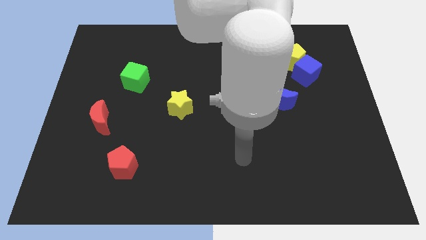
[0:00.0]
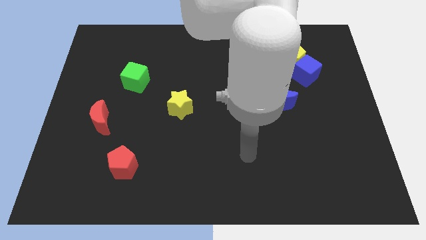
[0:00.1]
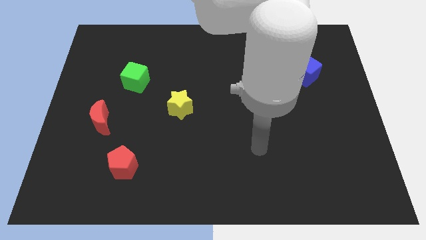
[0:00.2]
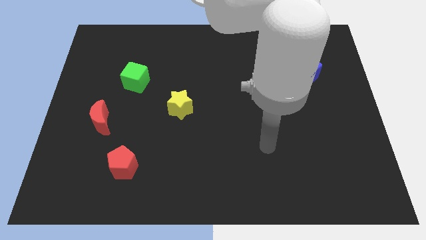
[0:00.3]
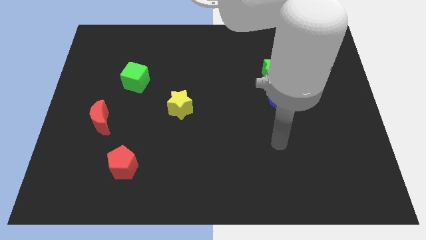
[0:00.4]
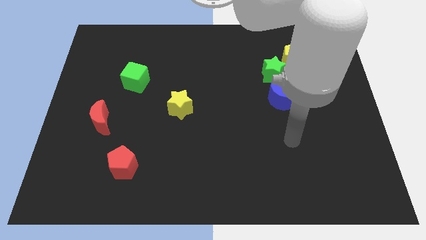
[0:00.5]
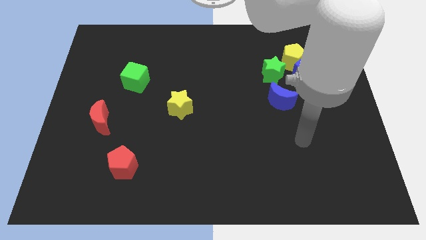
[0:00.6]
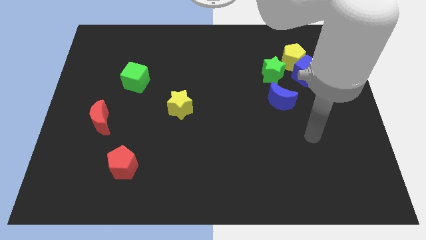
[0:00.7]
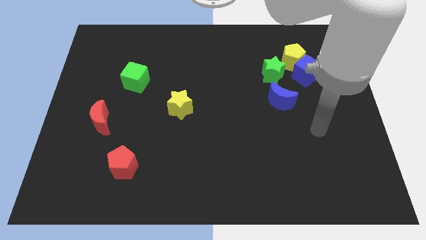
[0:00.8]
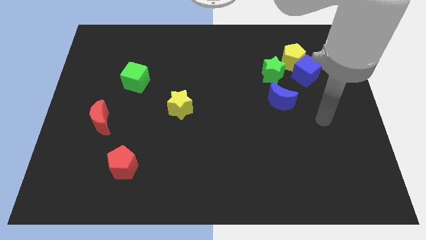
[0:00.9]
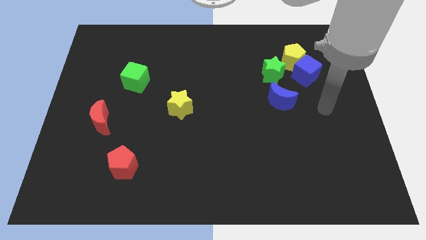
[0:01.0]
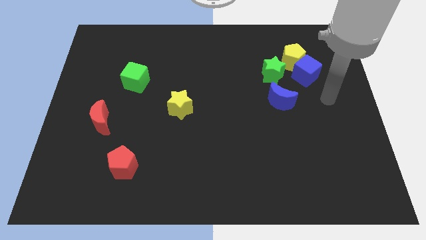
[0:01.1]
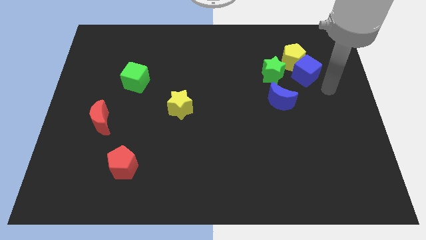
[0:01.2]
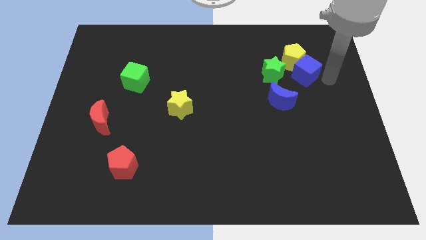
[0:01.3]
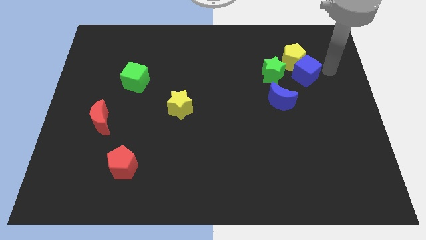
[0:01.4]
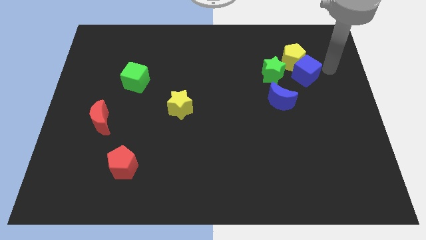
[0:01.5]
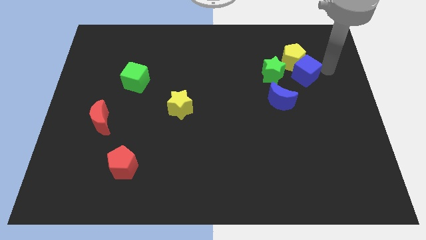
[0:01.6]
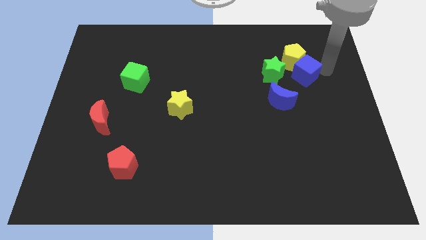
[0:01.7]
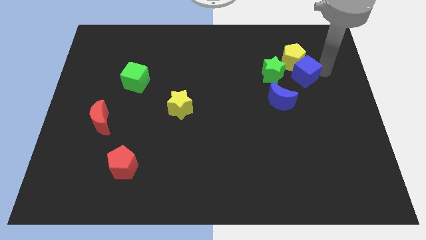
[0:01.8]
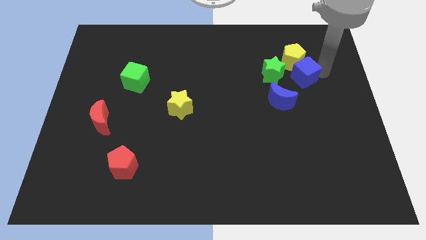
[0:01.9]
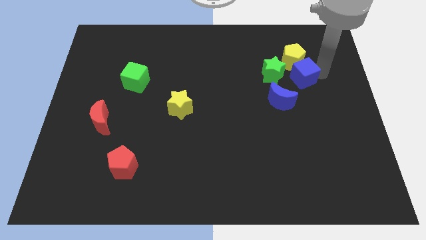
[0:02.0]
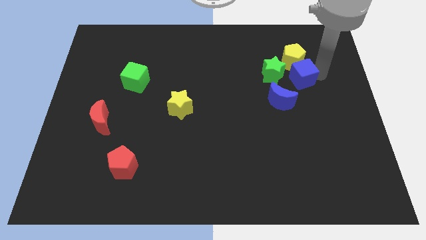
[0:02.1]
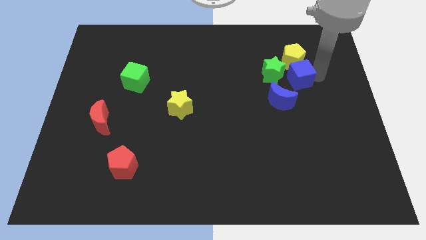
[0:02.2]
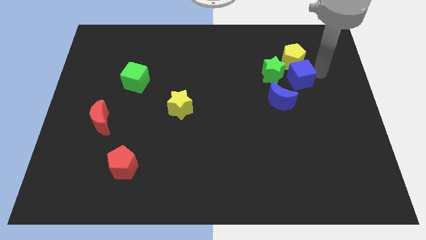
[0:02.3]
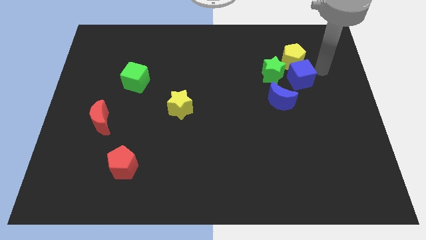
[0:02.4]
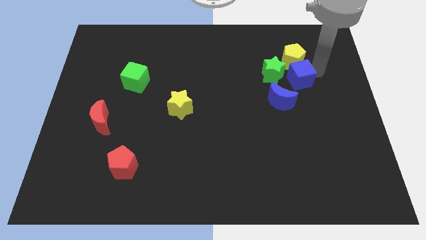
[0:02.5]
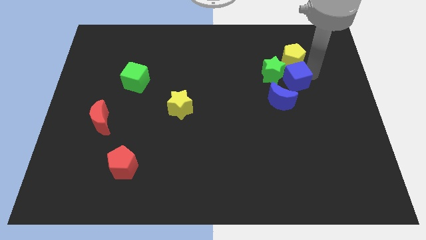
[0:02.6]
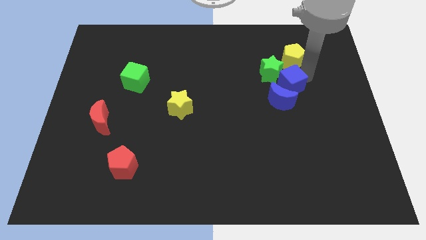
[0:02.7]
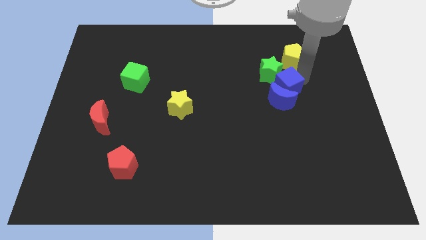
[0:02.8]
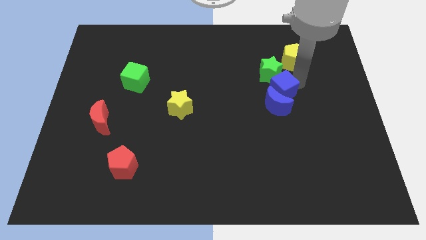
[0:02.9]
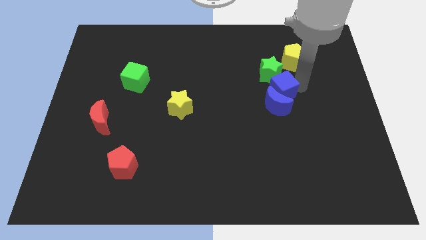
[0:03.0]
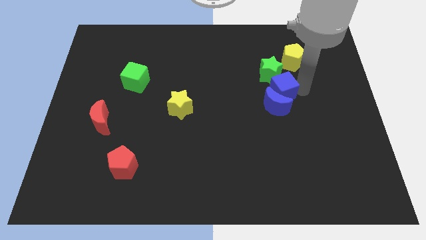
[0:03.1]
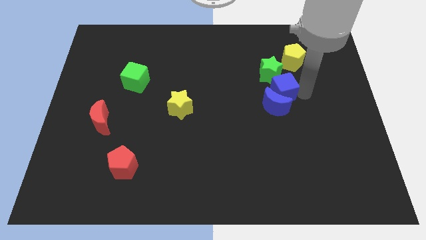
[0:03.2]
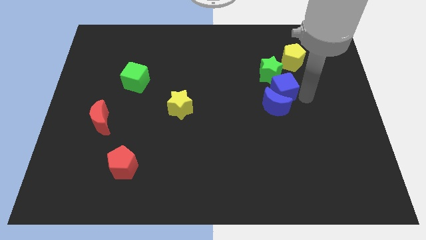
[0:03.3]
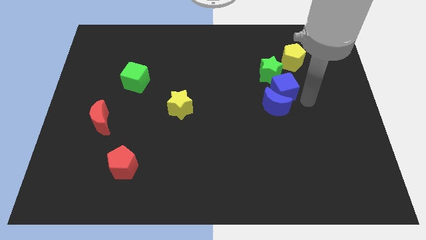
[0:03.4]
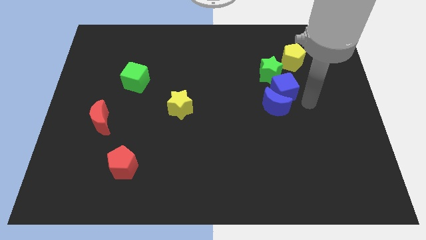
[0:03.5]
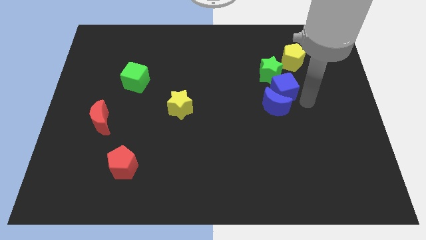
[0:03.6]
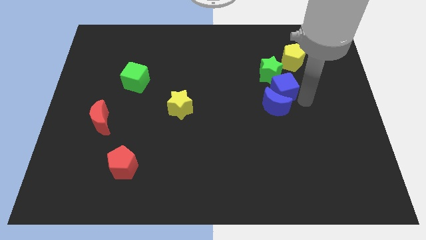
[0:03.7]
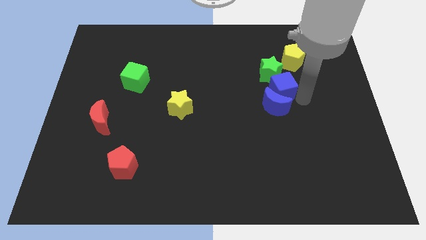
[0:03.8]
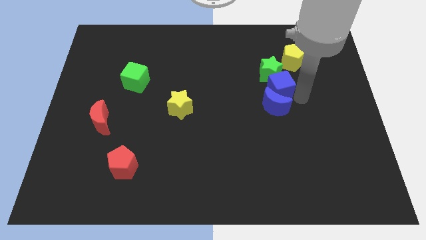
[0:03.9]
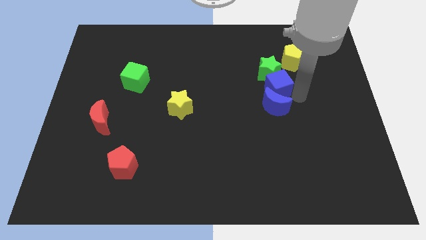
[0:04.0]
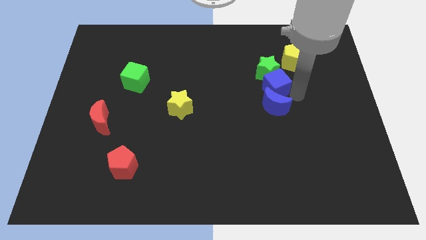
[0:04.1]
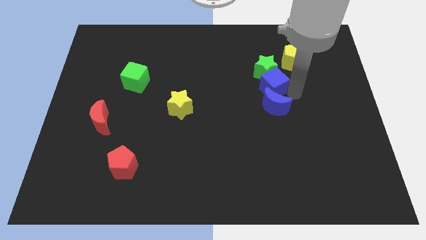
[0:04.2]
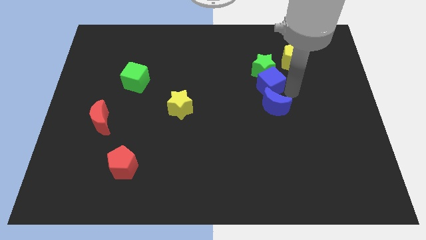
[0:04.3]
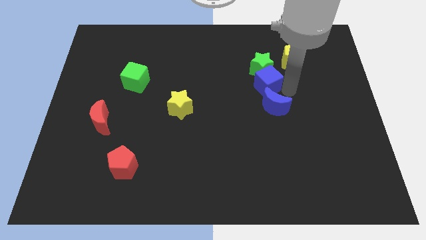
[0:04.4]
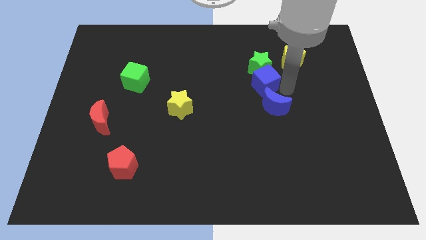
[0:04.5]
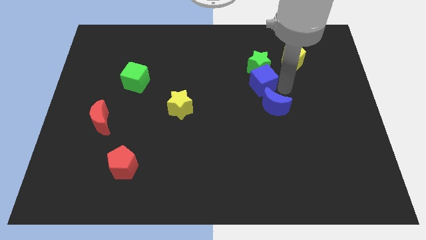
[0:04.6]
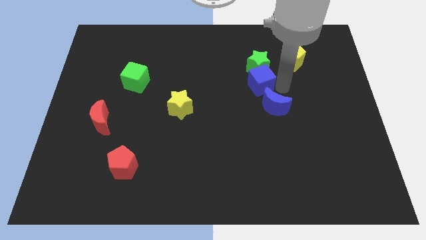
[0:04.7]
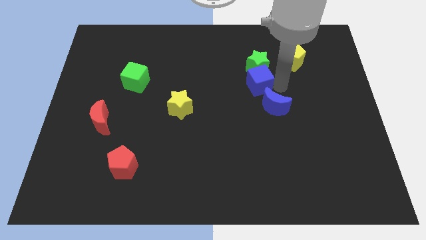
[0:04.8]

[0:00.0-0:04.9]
put the blue cube to the center of the board

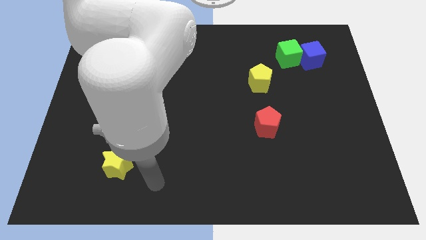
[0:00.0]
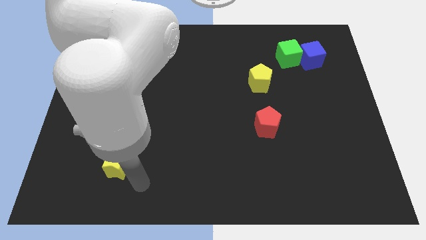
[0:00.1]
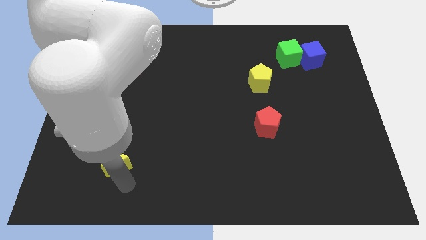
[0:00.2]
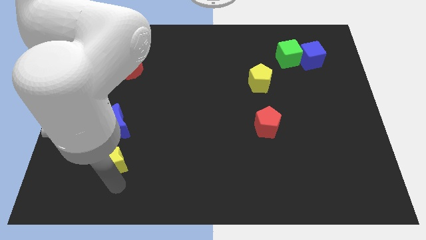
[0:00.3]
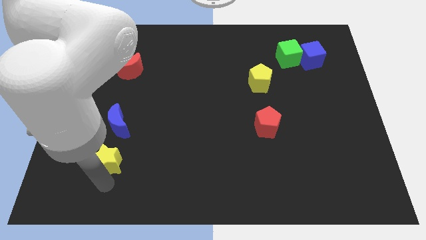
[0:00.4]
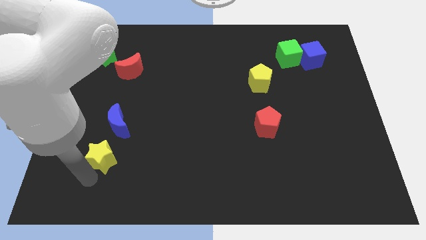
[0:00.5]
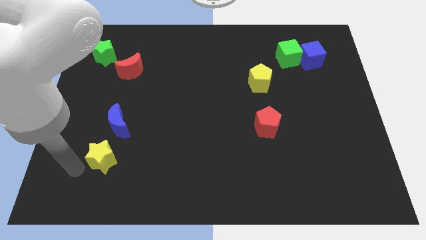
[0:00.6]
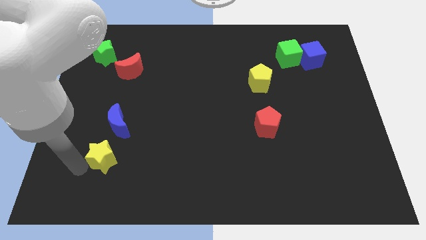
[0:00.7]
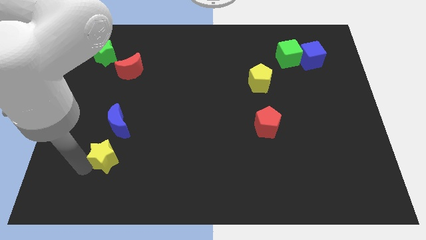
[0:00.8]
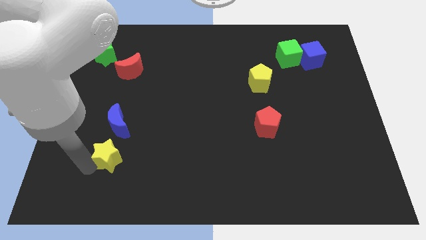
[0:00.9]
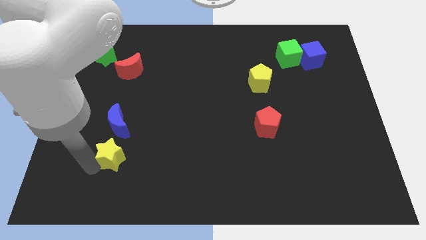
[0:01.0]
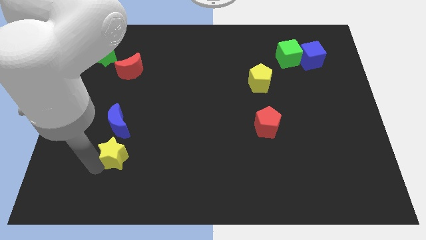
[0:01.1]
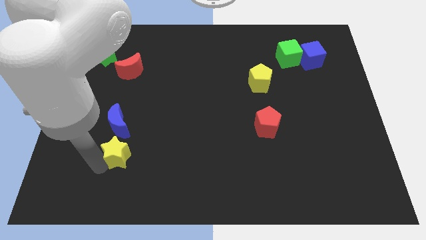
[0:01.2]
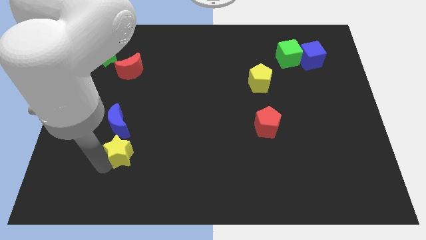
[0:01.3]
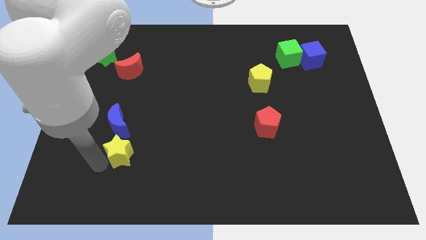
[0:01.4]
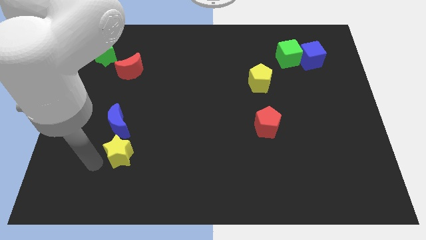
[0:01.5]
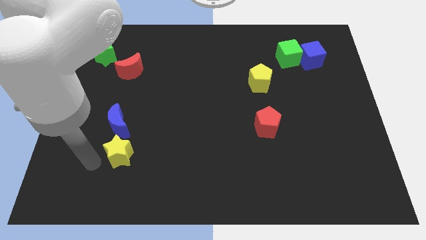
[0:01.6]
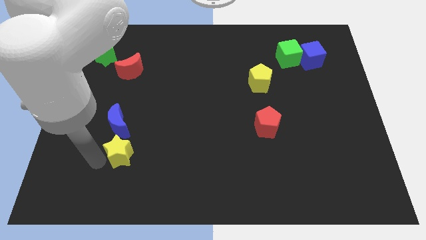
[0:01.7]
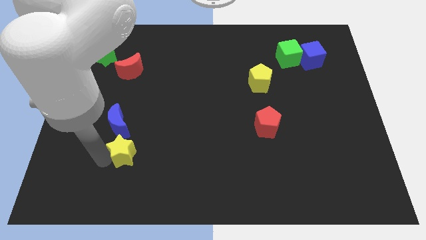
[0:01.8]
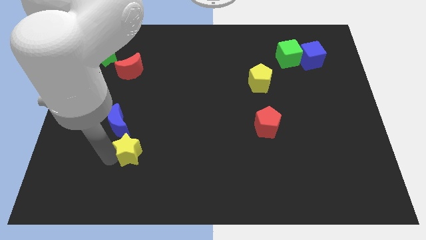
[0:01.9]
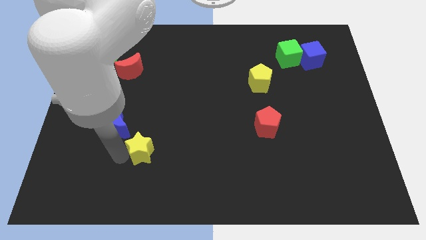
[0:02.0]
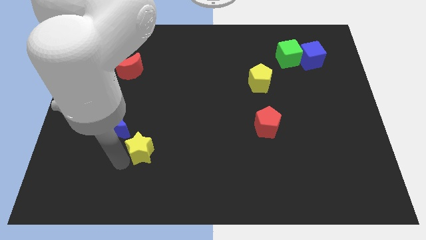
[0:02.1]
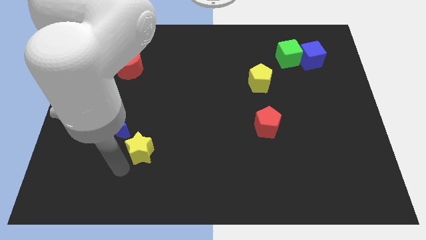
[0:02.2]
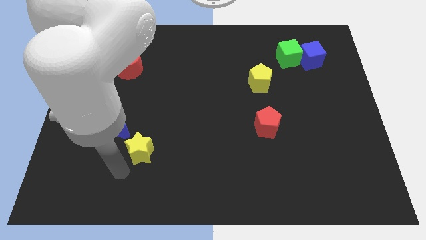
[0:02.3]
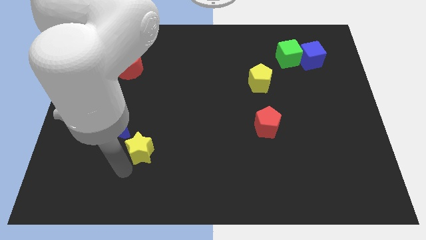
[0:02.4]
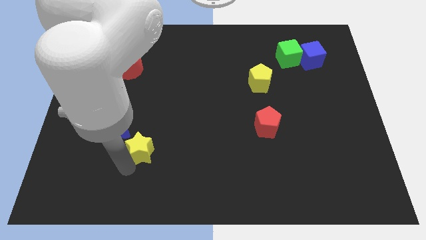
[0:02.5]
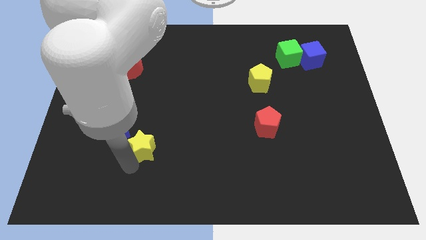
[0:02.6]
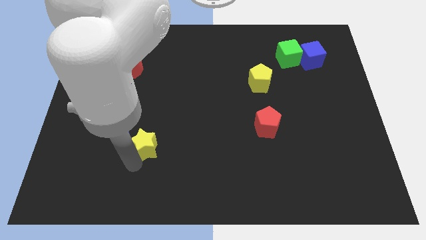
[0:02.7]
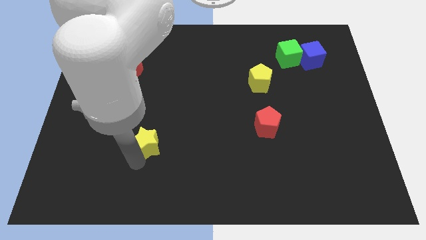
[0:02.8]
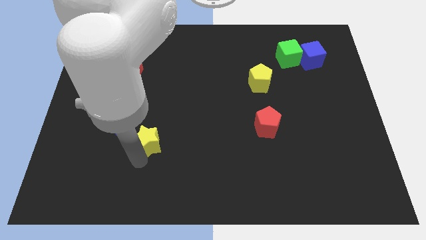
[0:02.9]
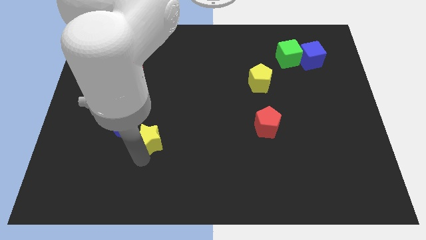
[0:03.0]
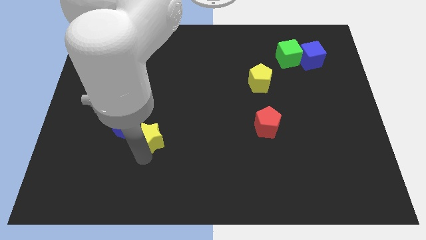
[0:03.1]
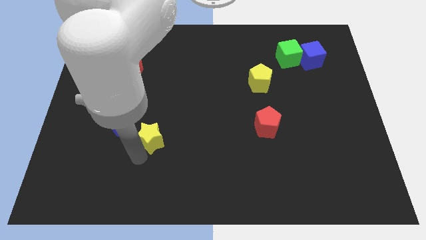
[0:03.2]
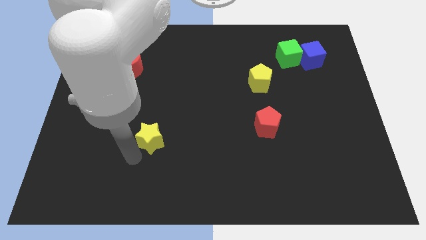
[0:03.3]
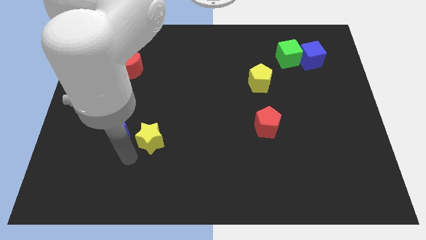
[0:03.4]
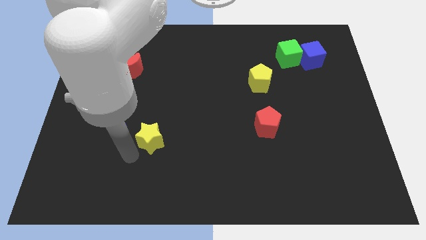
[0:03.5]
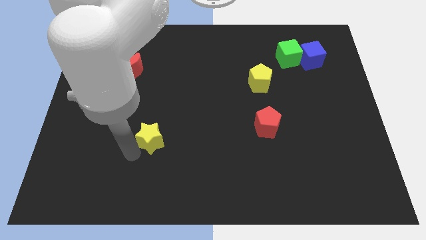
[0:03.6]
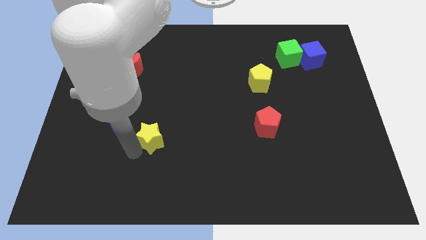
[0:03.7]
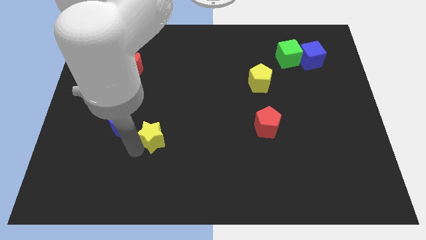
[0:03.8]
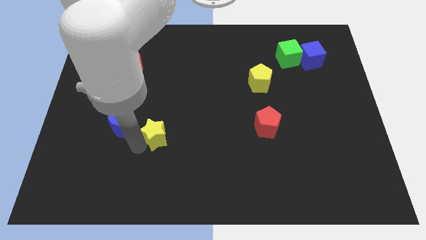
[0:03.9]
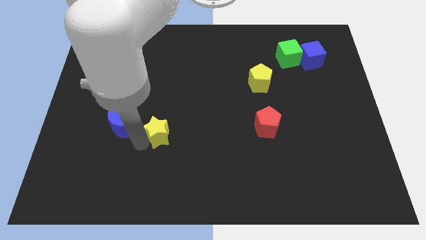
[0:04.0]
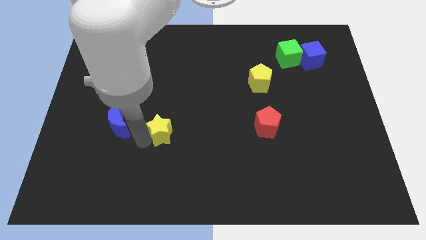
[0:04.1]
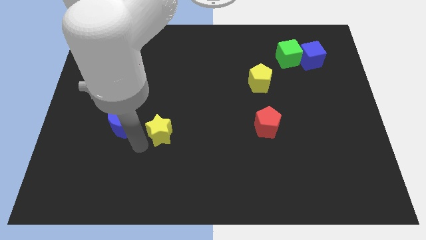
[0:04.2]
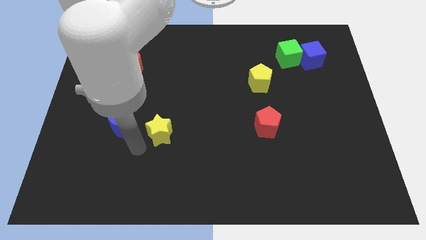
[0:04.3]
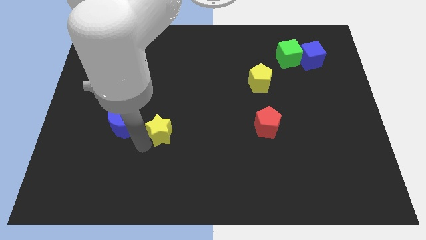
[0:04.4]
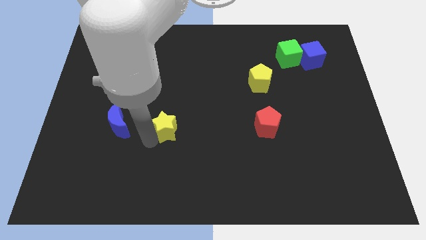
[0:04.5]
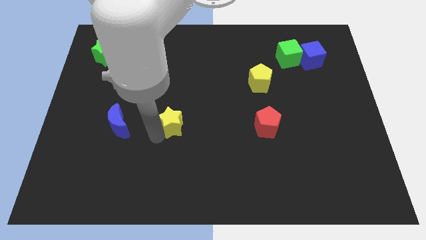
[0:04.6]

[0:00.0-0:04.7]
slide the yellow star to the center
